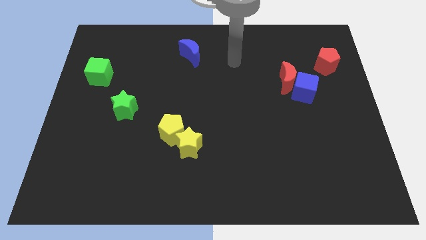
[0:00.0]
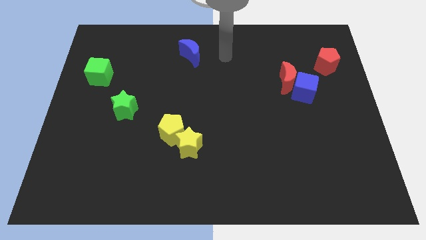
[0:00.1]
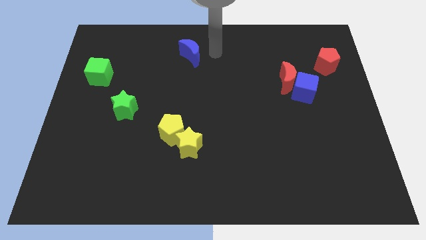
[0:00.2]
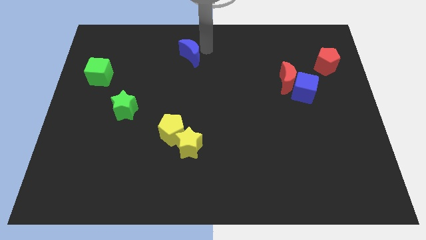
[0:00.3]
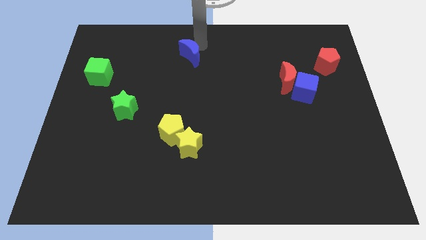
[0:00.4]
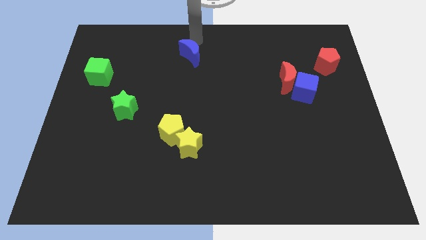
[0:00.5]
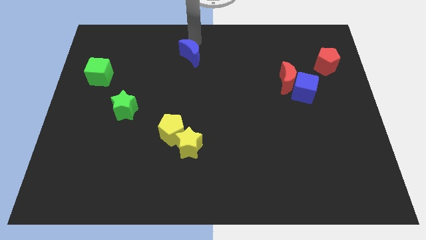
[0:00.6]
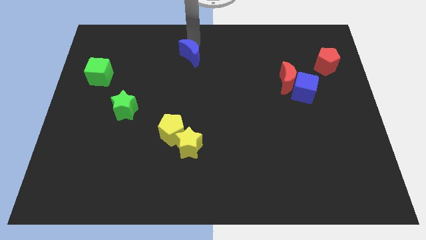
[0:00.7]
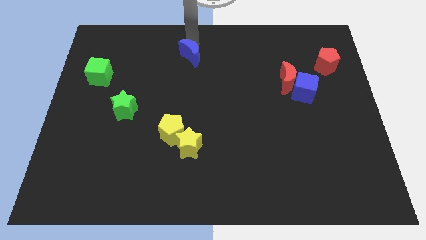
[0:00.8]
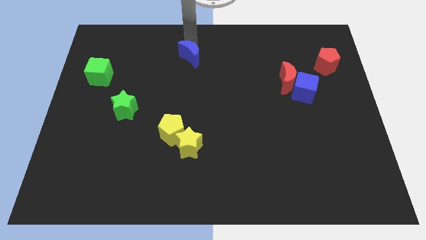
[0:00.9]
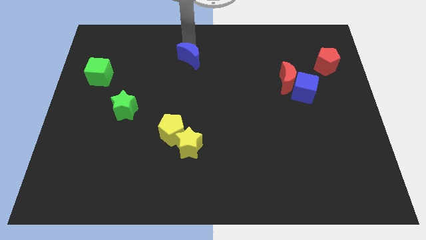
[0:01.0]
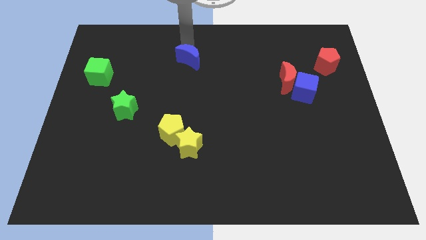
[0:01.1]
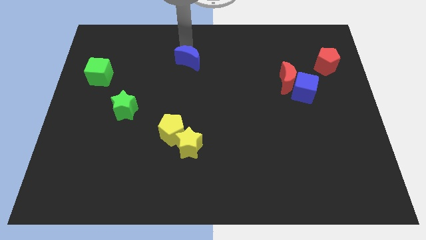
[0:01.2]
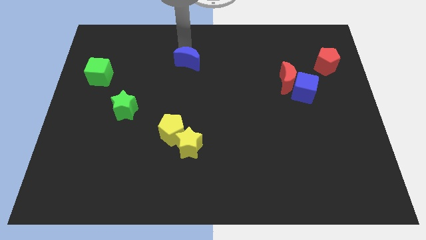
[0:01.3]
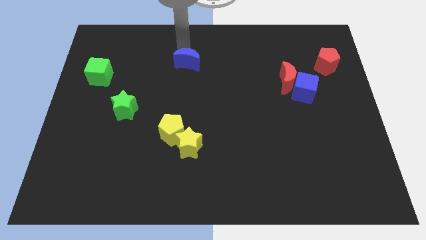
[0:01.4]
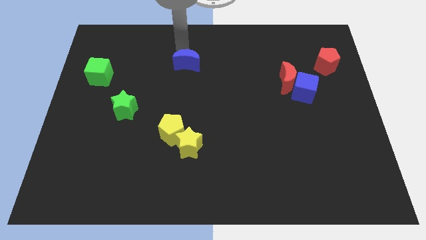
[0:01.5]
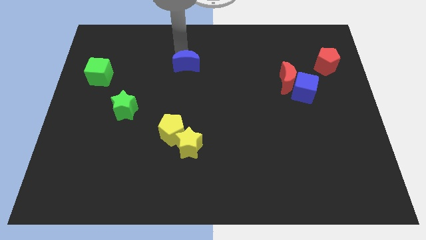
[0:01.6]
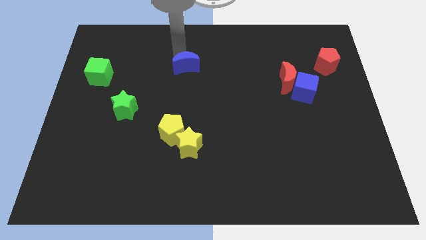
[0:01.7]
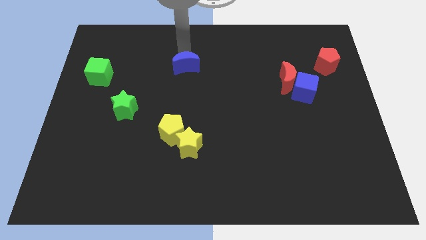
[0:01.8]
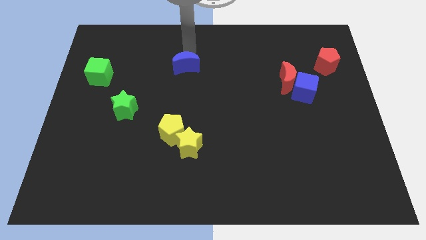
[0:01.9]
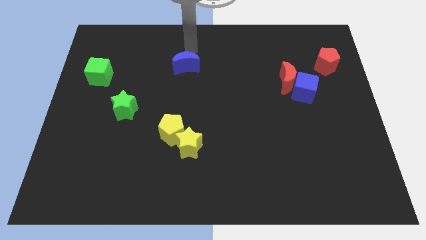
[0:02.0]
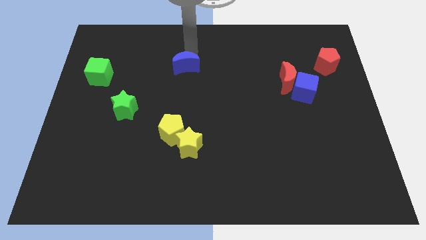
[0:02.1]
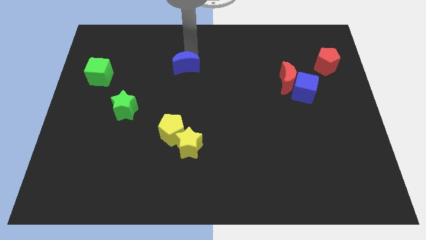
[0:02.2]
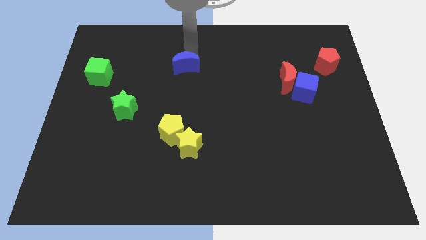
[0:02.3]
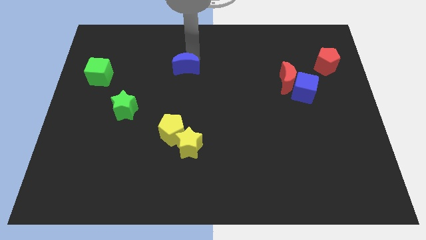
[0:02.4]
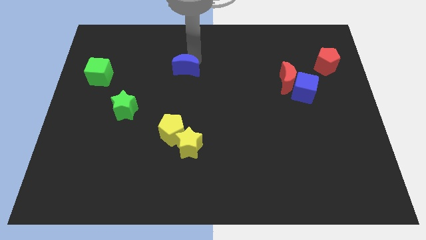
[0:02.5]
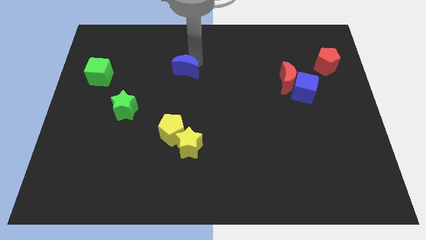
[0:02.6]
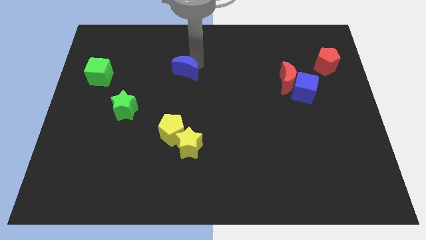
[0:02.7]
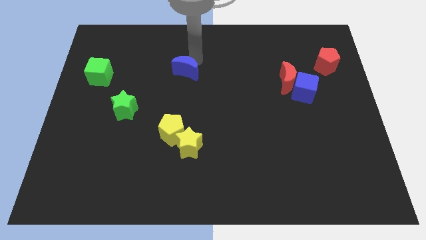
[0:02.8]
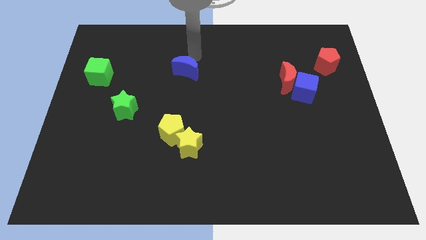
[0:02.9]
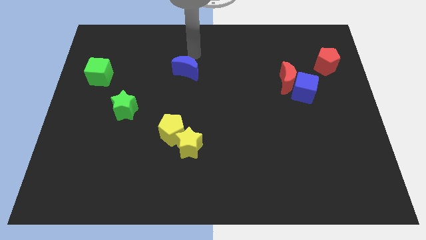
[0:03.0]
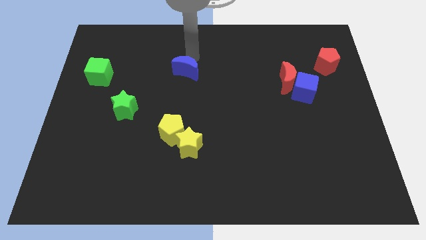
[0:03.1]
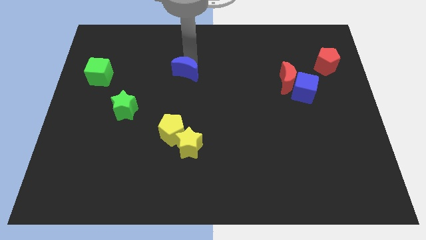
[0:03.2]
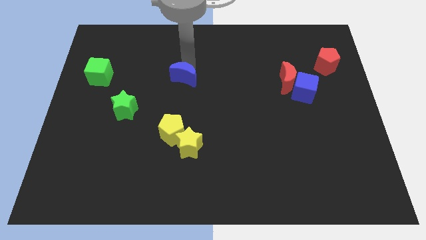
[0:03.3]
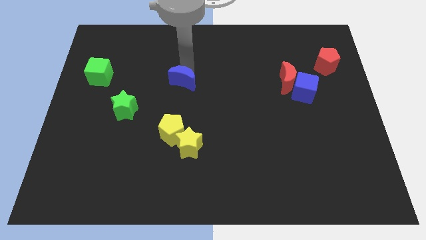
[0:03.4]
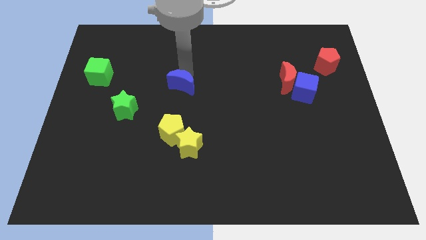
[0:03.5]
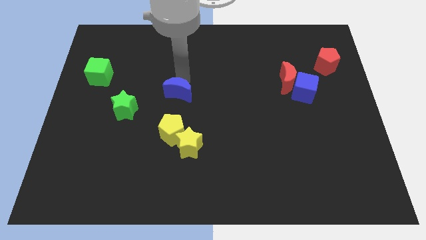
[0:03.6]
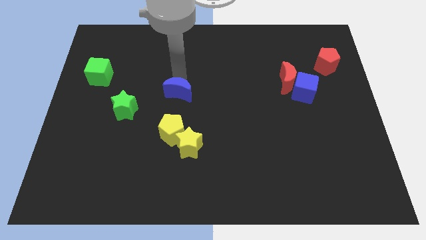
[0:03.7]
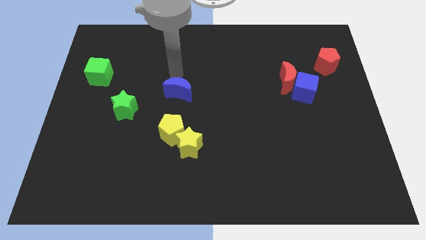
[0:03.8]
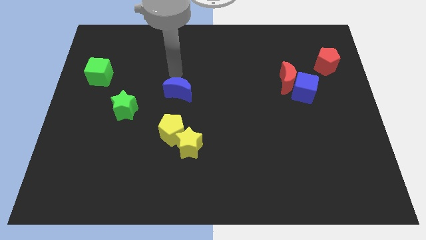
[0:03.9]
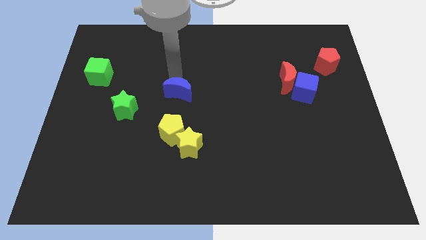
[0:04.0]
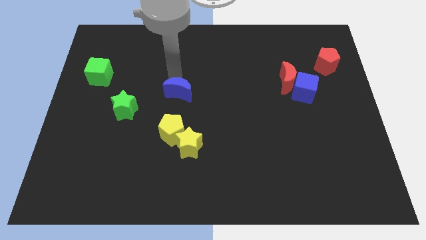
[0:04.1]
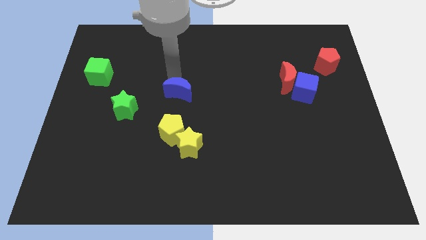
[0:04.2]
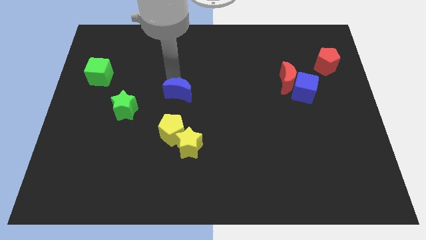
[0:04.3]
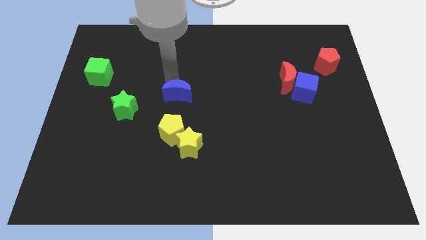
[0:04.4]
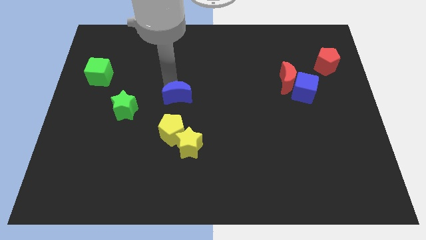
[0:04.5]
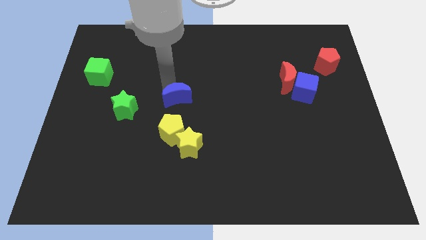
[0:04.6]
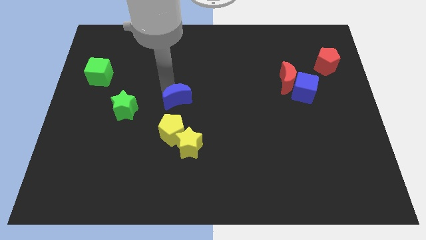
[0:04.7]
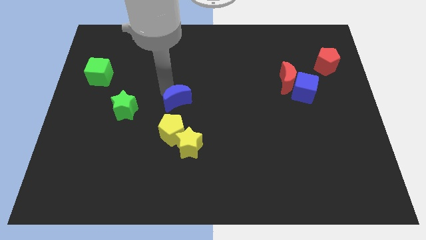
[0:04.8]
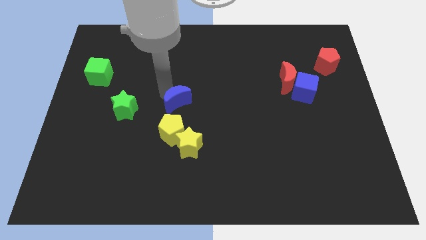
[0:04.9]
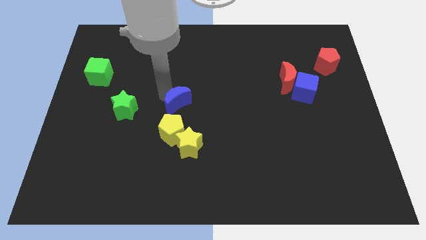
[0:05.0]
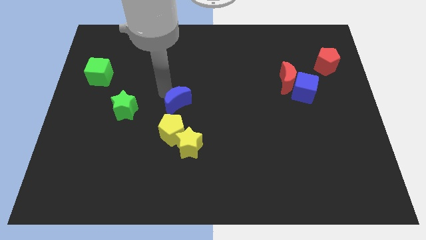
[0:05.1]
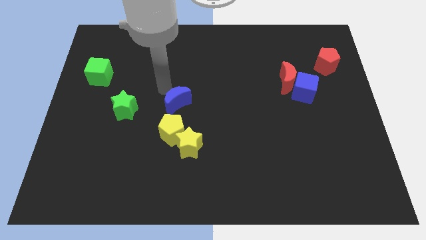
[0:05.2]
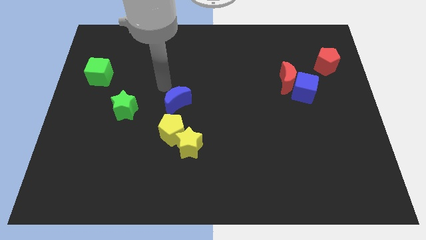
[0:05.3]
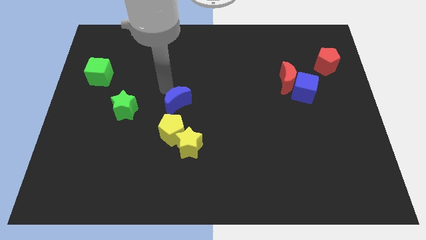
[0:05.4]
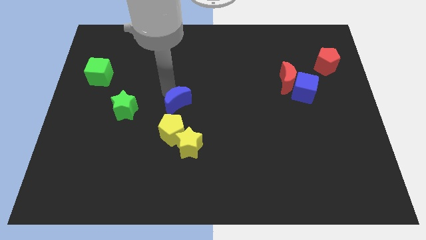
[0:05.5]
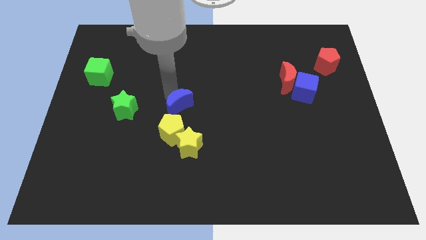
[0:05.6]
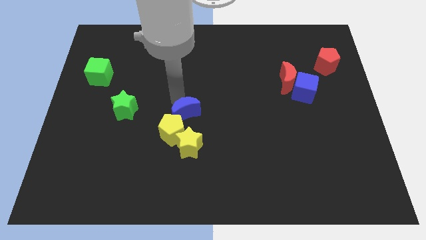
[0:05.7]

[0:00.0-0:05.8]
put the blue moon to the yellow pentagon

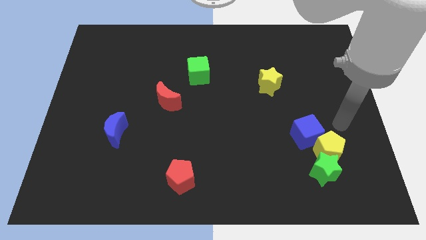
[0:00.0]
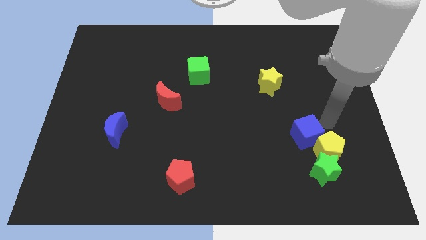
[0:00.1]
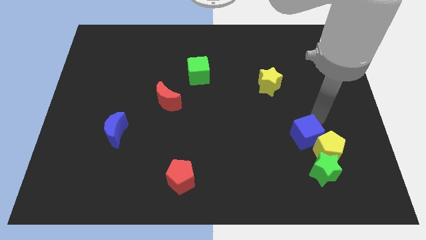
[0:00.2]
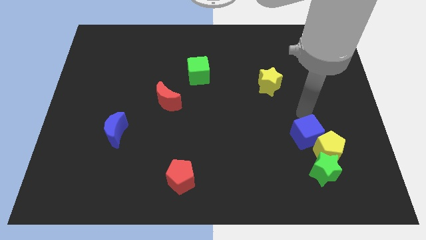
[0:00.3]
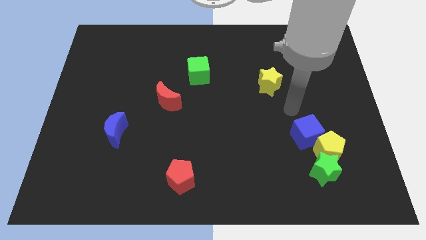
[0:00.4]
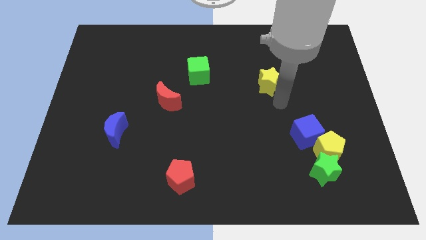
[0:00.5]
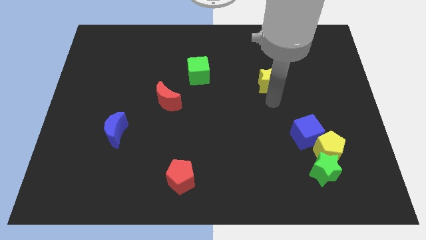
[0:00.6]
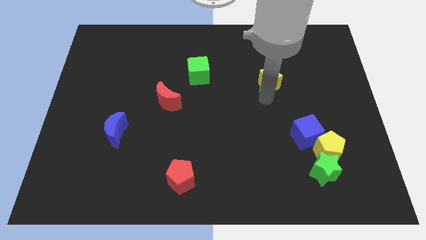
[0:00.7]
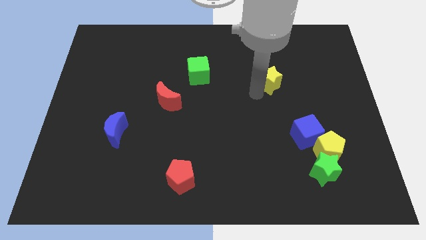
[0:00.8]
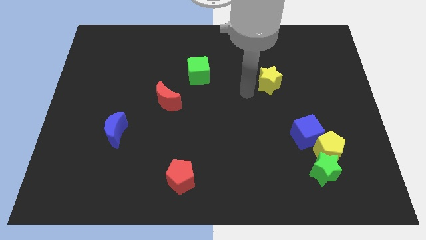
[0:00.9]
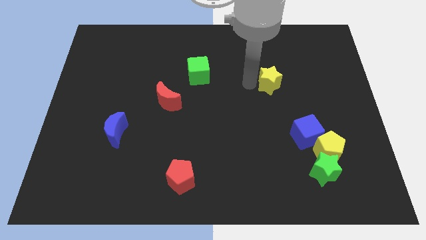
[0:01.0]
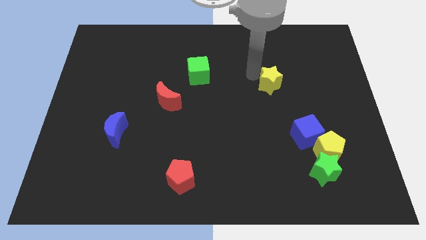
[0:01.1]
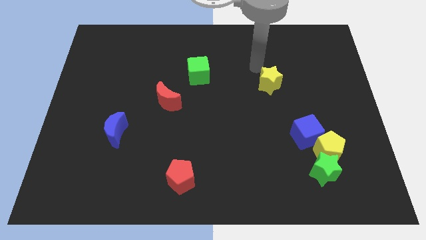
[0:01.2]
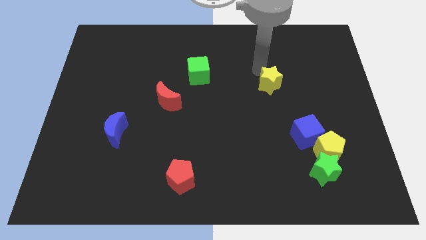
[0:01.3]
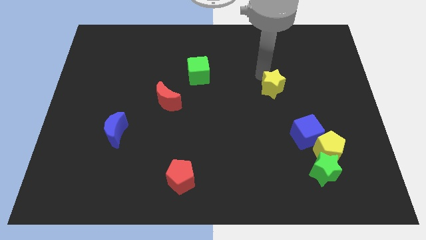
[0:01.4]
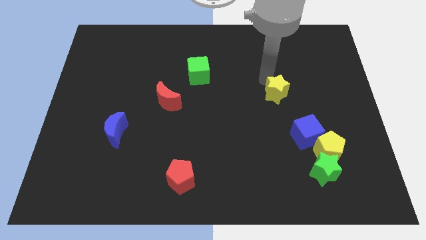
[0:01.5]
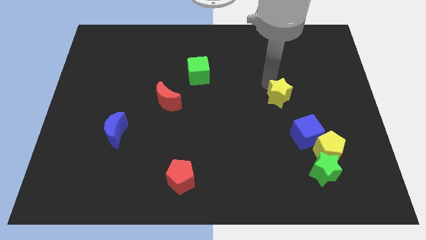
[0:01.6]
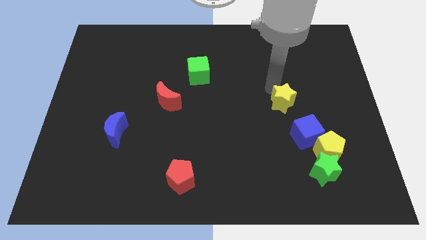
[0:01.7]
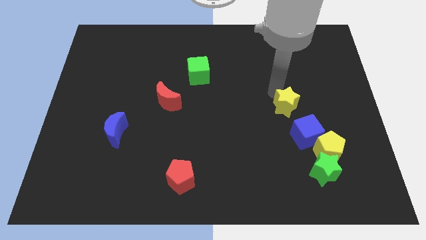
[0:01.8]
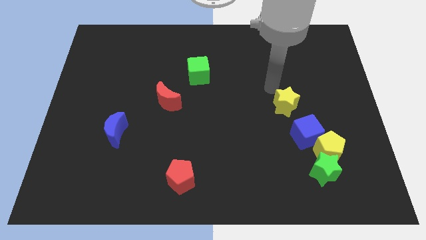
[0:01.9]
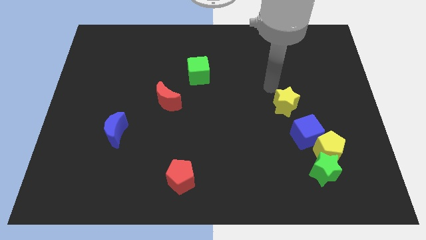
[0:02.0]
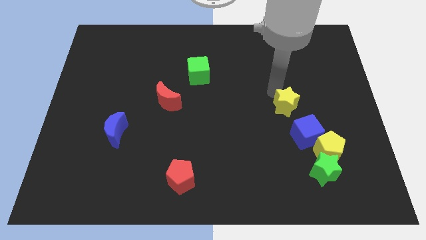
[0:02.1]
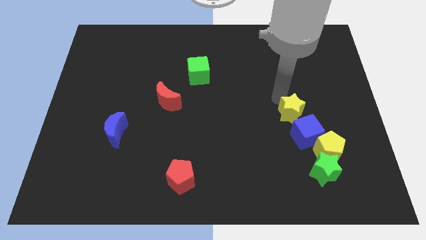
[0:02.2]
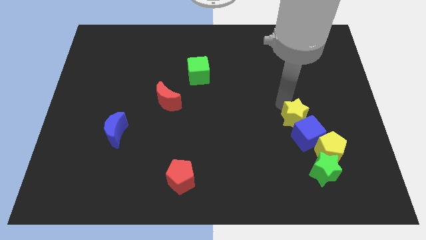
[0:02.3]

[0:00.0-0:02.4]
push the yellow star next to the blue cube
